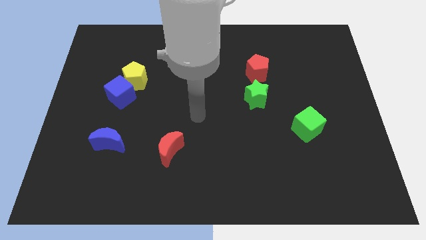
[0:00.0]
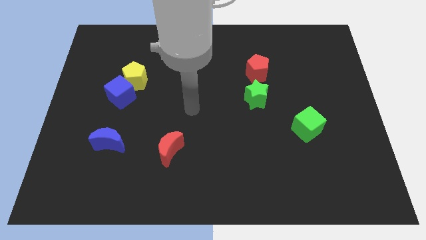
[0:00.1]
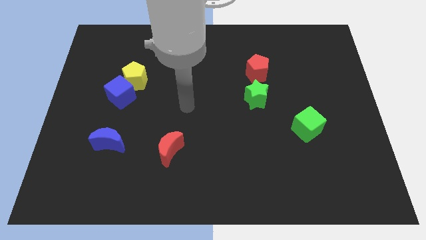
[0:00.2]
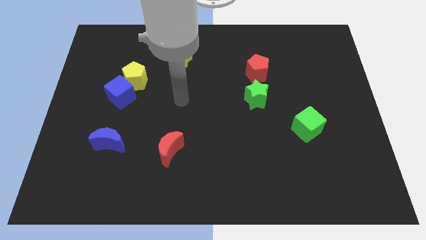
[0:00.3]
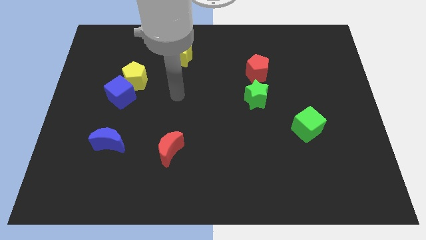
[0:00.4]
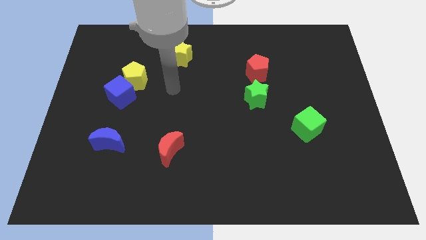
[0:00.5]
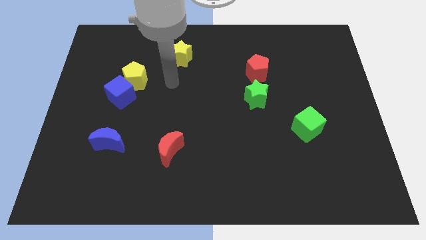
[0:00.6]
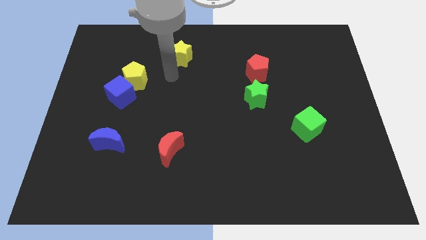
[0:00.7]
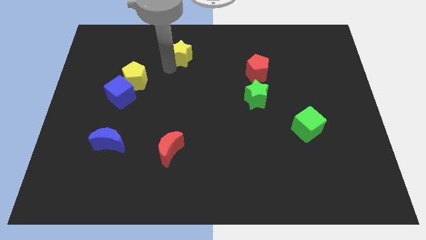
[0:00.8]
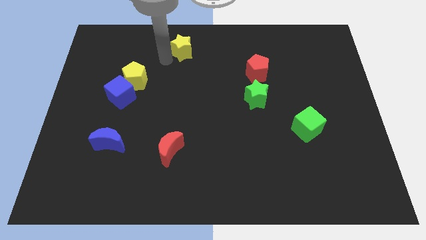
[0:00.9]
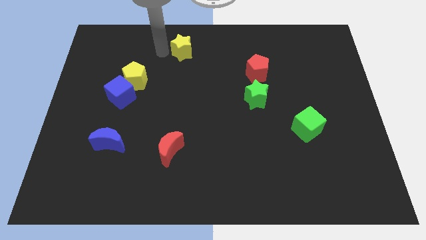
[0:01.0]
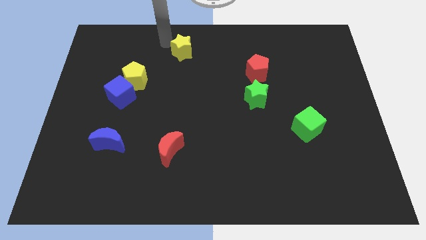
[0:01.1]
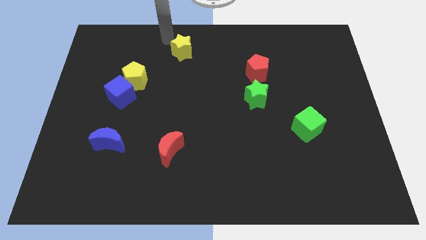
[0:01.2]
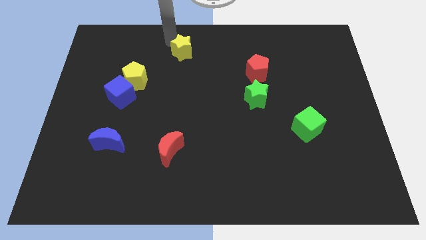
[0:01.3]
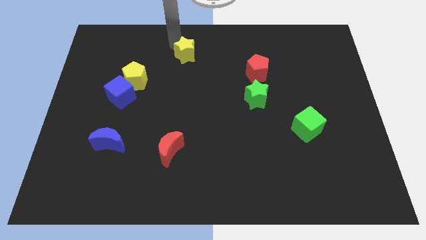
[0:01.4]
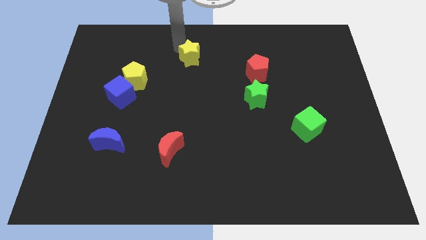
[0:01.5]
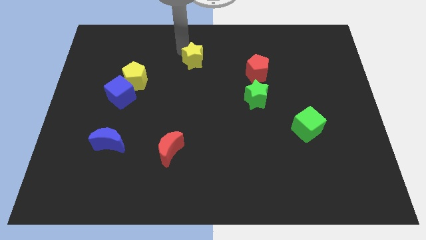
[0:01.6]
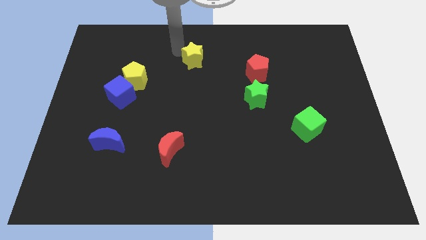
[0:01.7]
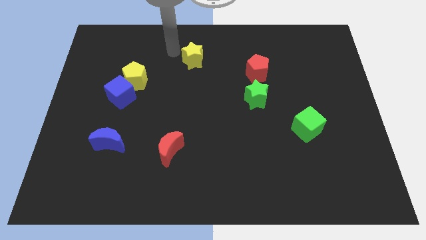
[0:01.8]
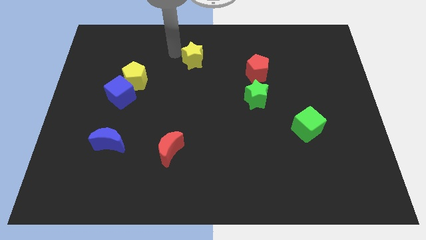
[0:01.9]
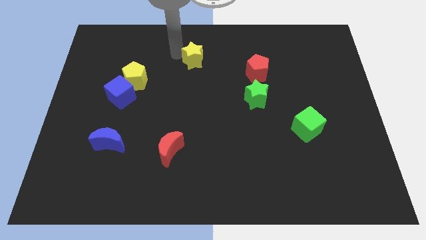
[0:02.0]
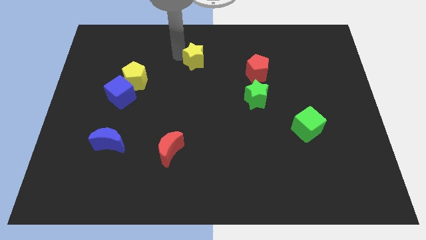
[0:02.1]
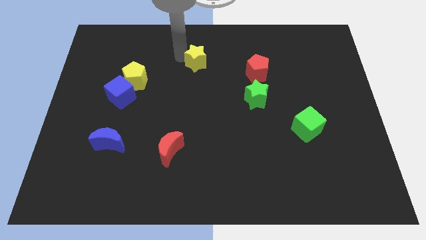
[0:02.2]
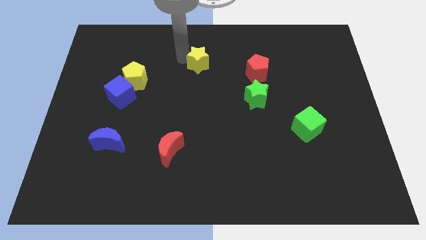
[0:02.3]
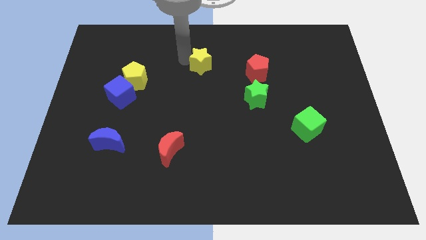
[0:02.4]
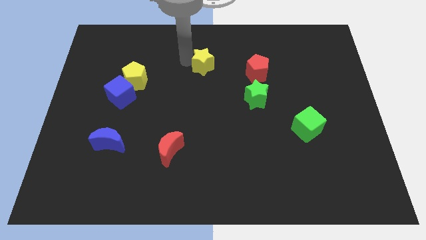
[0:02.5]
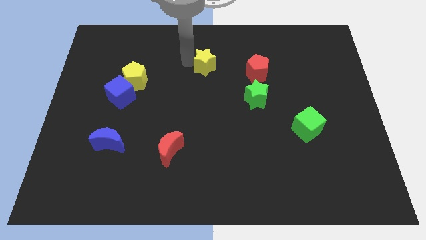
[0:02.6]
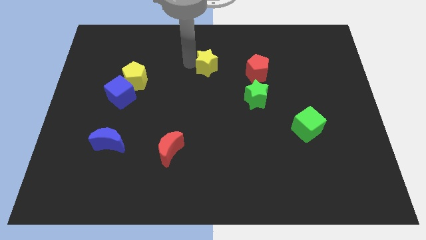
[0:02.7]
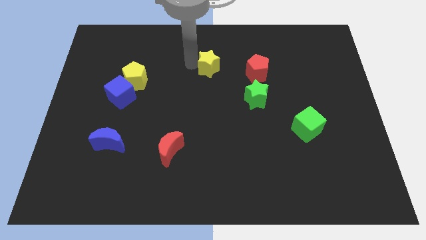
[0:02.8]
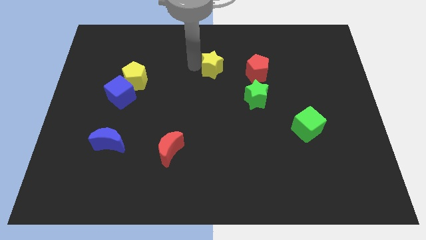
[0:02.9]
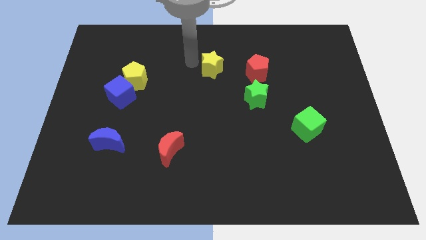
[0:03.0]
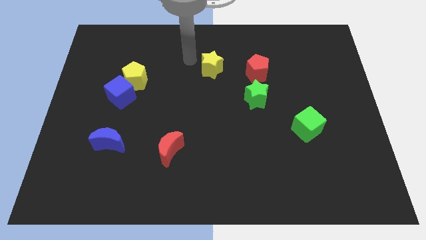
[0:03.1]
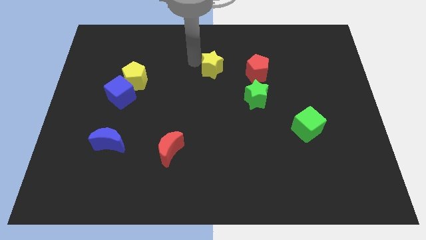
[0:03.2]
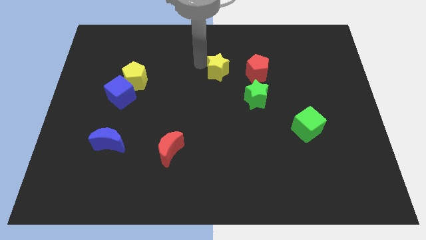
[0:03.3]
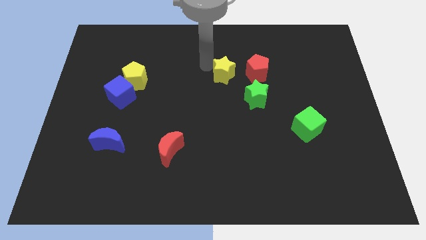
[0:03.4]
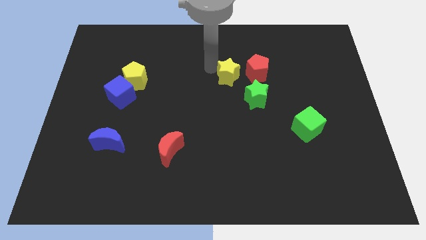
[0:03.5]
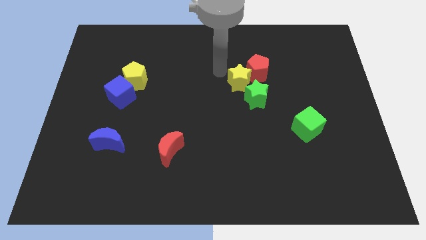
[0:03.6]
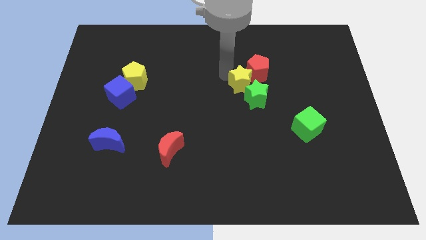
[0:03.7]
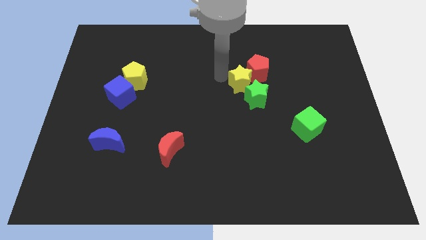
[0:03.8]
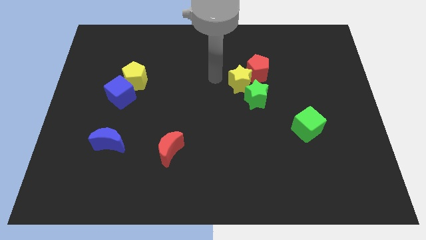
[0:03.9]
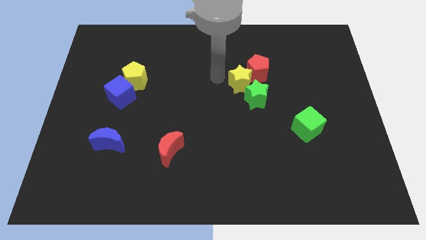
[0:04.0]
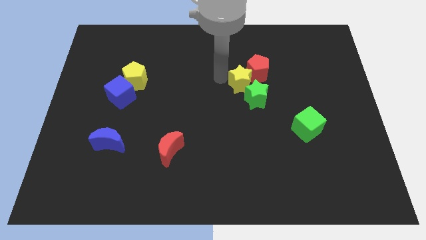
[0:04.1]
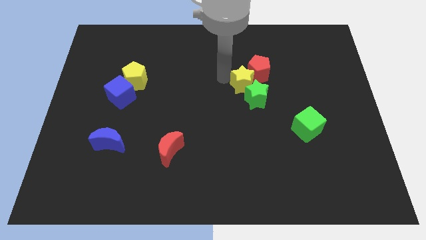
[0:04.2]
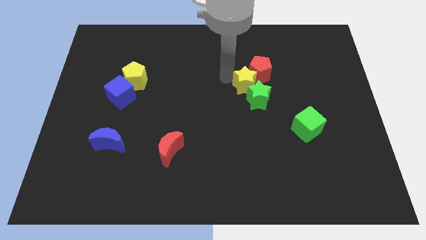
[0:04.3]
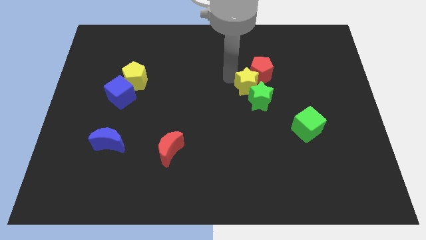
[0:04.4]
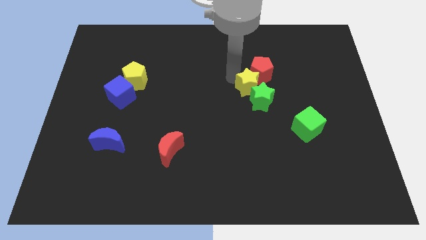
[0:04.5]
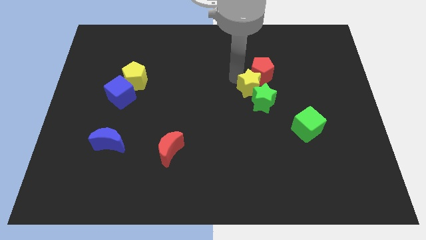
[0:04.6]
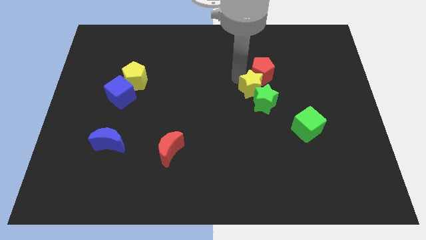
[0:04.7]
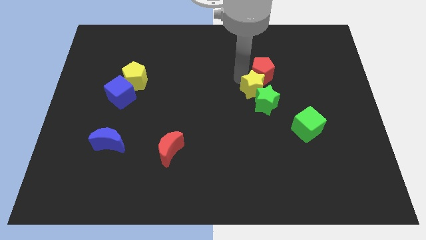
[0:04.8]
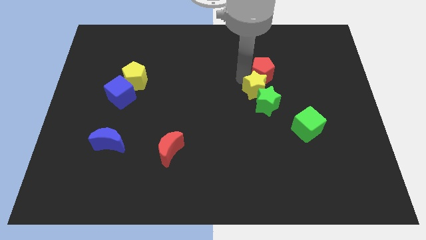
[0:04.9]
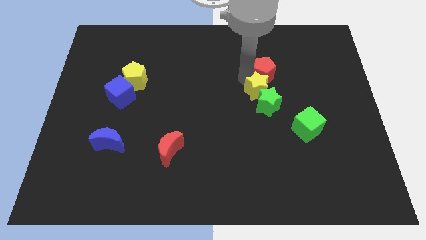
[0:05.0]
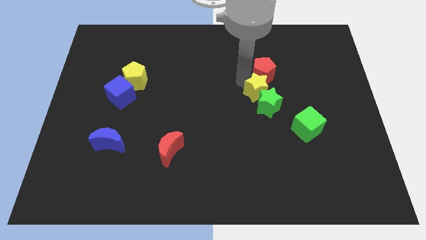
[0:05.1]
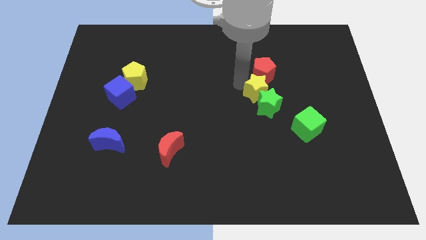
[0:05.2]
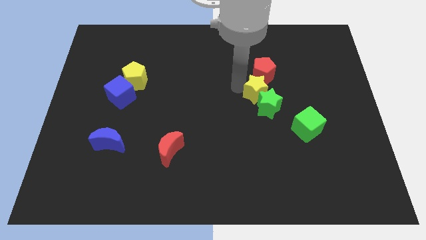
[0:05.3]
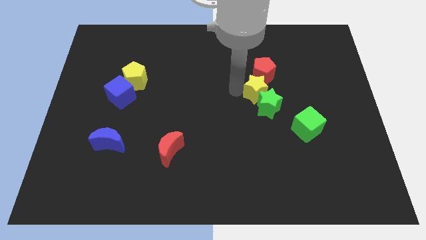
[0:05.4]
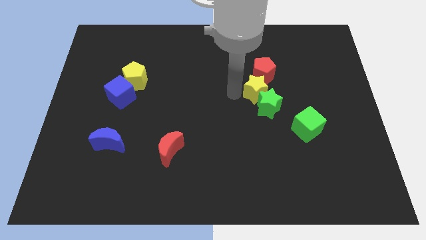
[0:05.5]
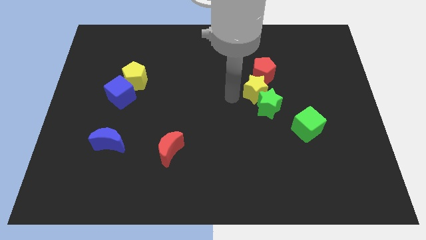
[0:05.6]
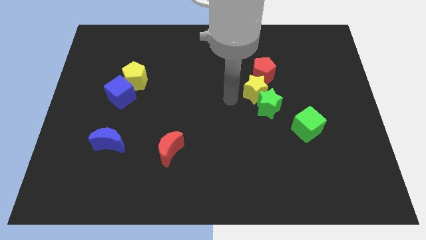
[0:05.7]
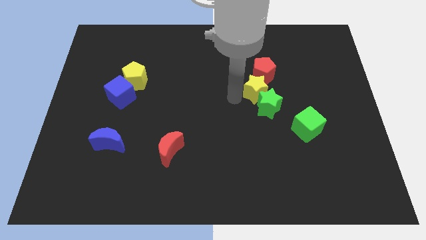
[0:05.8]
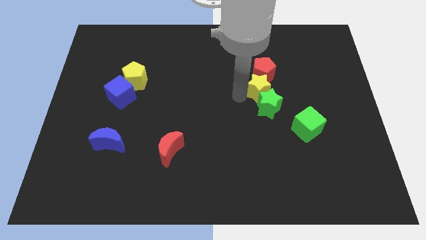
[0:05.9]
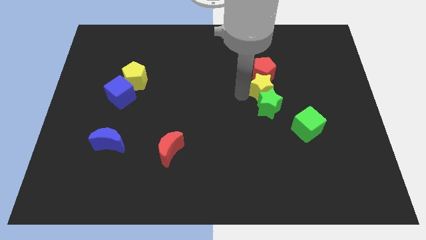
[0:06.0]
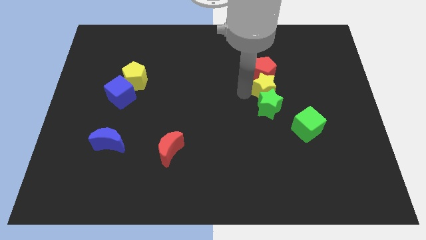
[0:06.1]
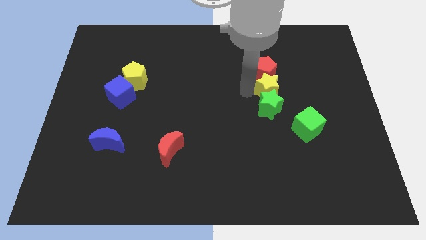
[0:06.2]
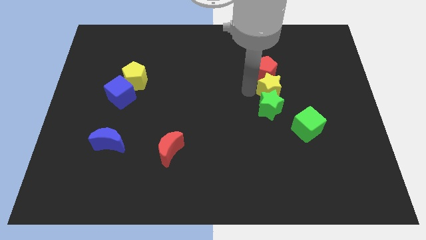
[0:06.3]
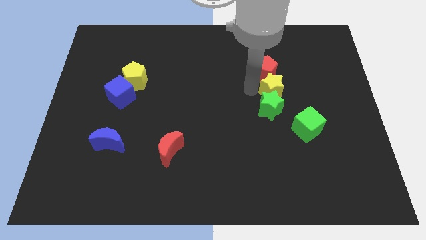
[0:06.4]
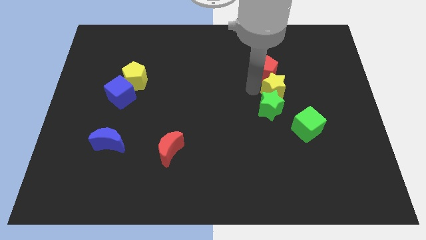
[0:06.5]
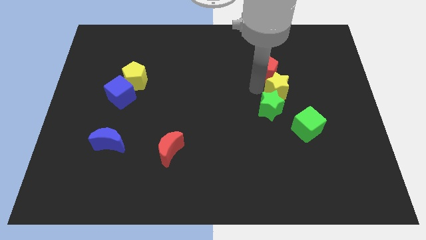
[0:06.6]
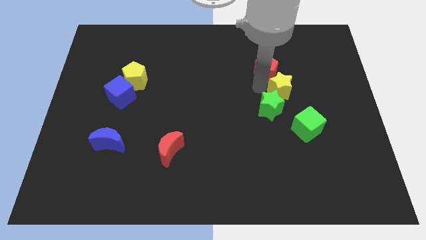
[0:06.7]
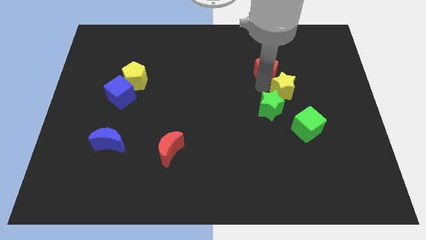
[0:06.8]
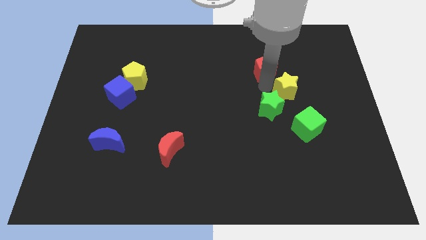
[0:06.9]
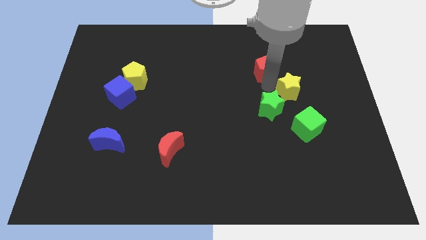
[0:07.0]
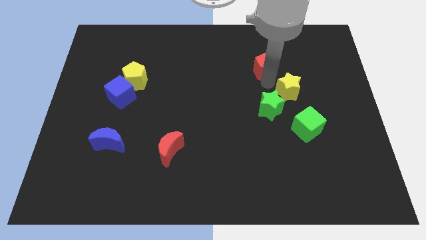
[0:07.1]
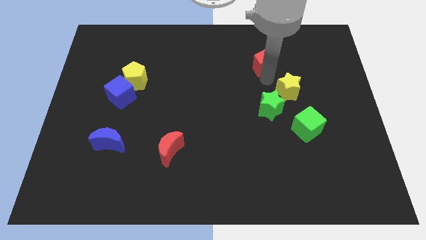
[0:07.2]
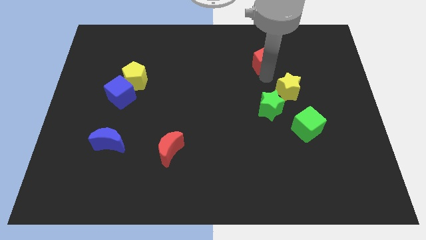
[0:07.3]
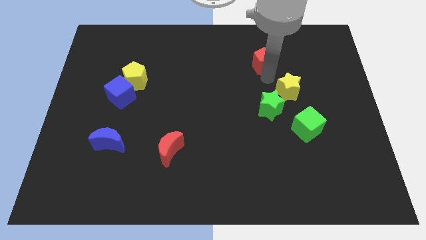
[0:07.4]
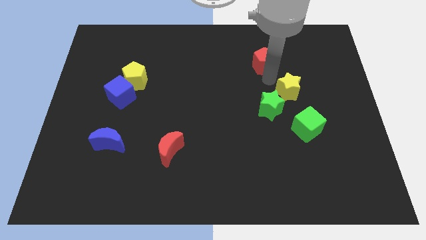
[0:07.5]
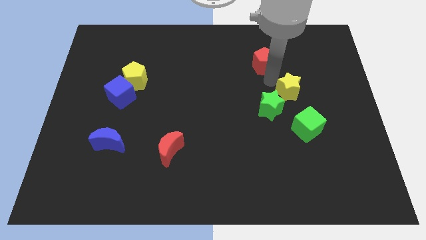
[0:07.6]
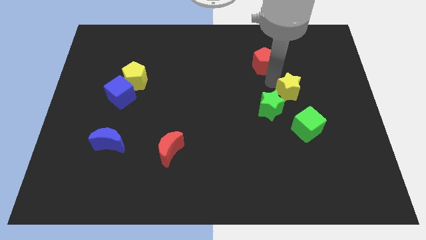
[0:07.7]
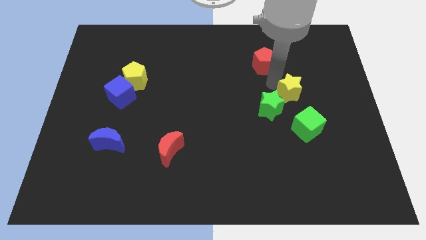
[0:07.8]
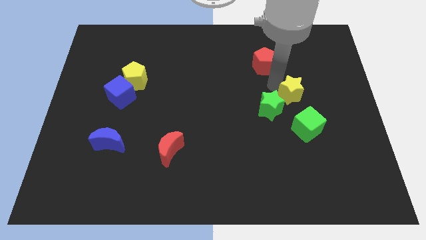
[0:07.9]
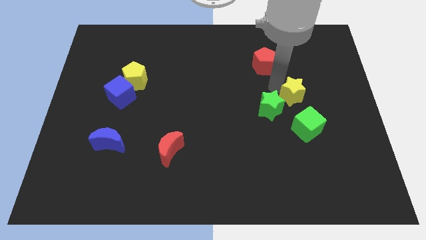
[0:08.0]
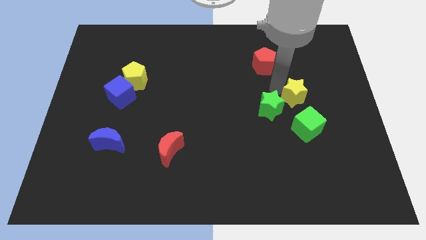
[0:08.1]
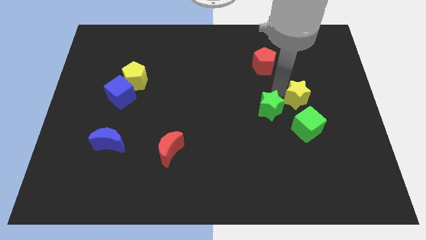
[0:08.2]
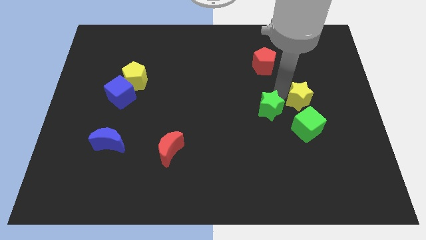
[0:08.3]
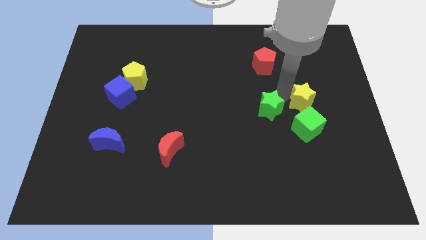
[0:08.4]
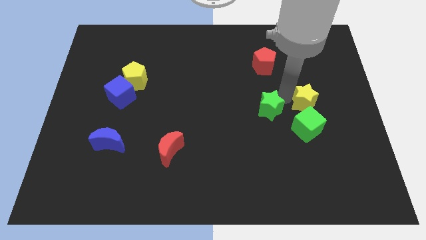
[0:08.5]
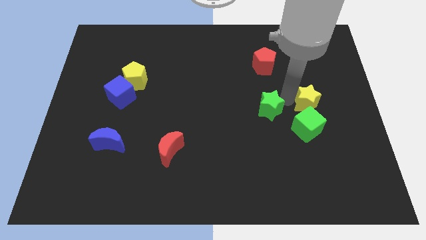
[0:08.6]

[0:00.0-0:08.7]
push the yellow star to the top right of the green cube
